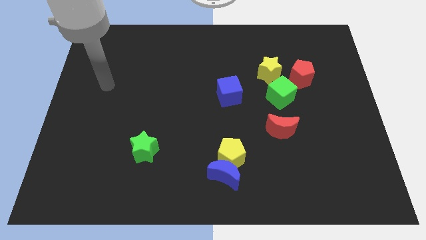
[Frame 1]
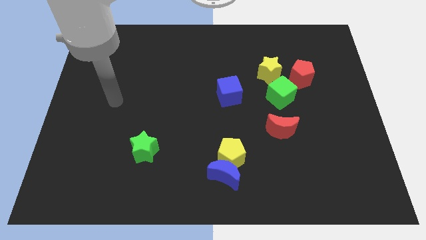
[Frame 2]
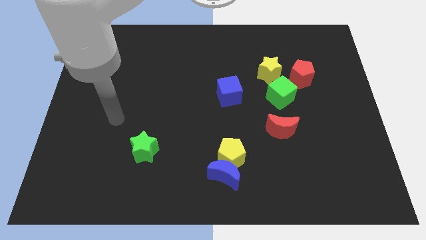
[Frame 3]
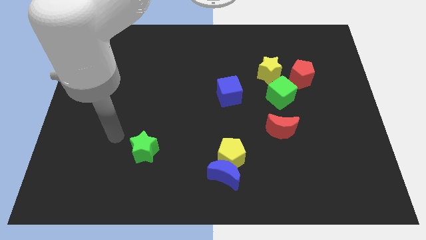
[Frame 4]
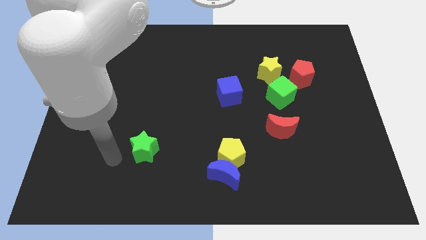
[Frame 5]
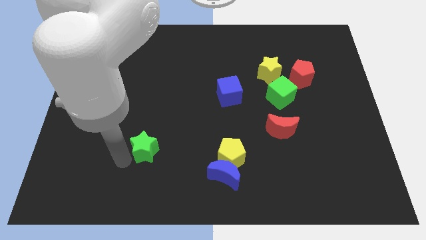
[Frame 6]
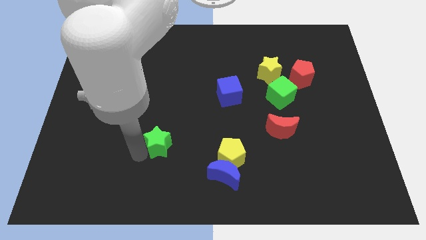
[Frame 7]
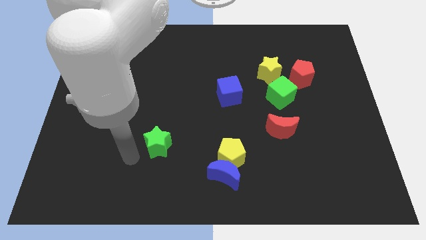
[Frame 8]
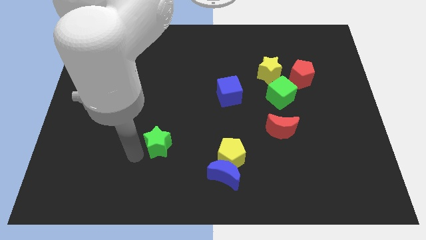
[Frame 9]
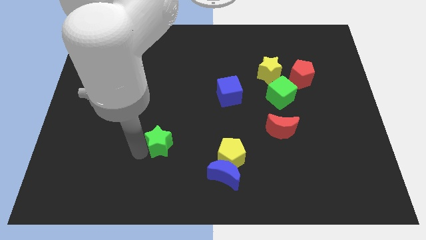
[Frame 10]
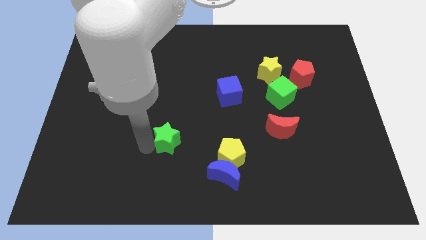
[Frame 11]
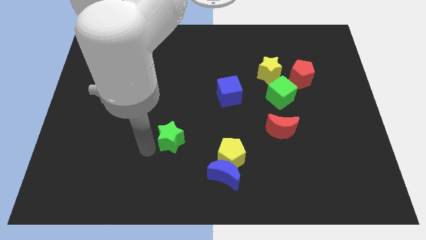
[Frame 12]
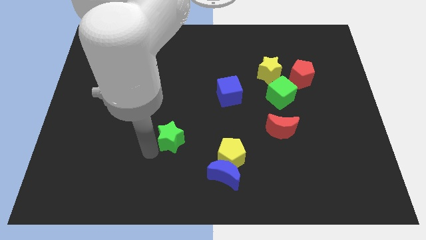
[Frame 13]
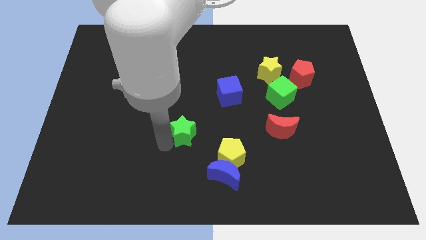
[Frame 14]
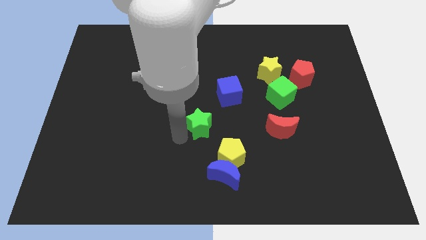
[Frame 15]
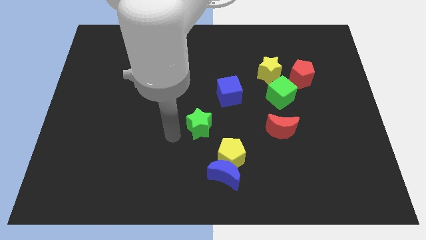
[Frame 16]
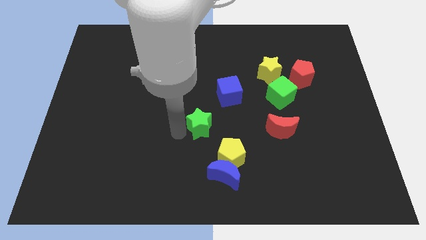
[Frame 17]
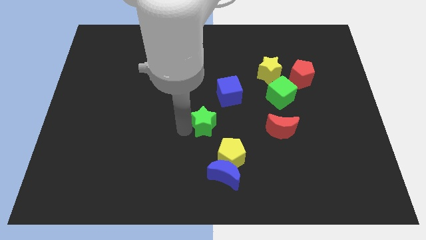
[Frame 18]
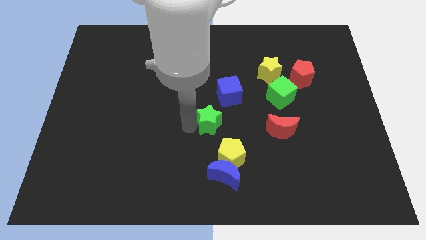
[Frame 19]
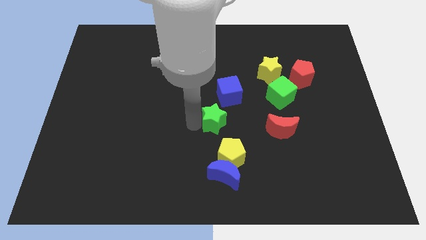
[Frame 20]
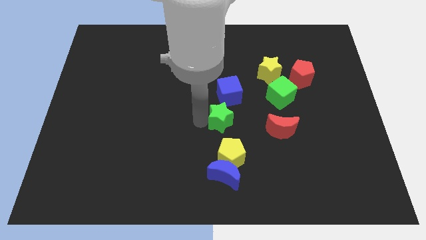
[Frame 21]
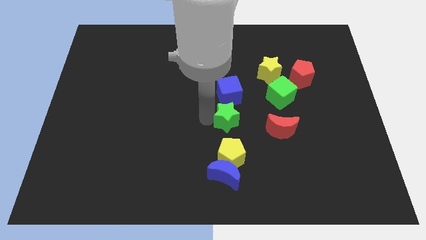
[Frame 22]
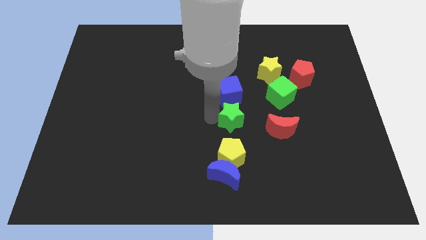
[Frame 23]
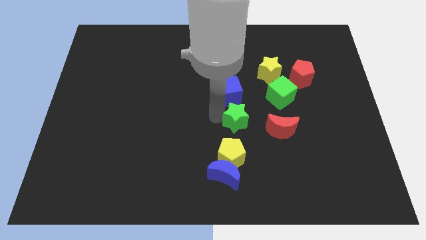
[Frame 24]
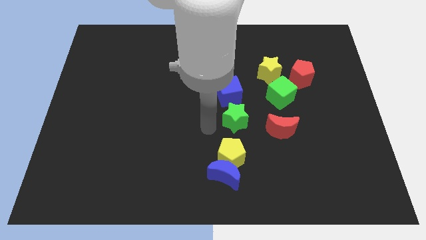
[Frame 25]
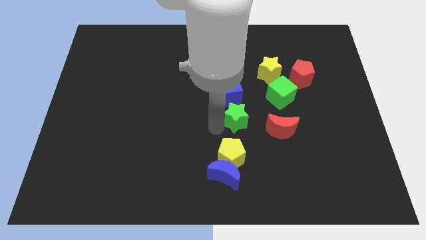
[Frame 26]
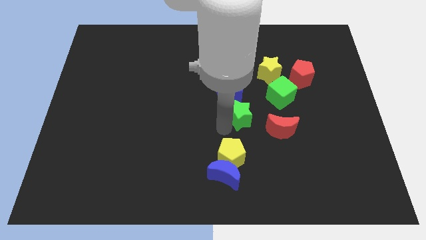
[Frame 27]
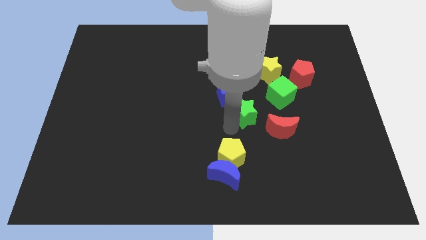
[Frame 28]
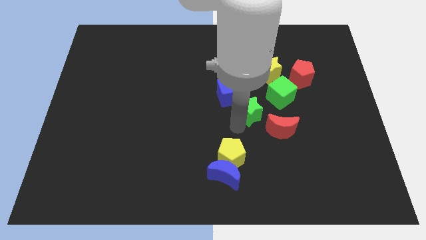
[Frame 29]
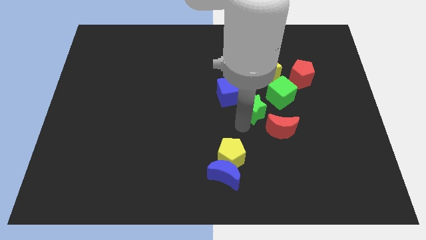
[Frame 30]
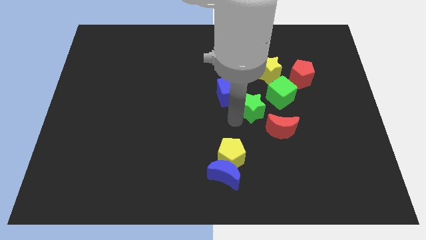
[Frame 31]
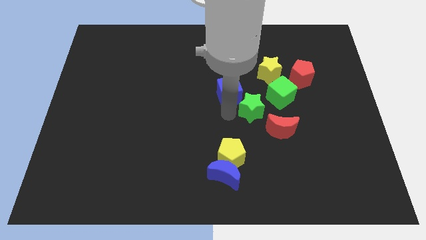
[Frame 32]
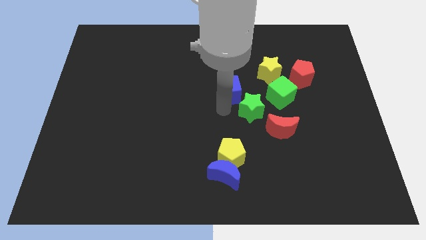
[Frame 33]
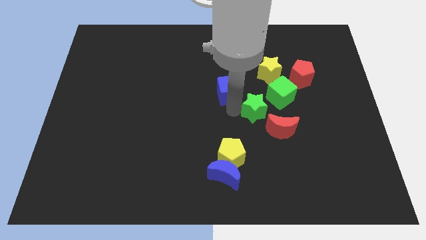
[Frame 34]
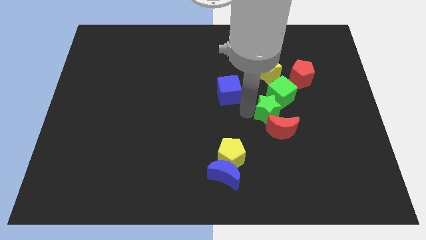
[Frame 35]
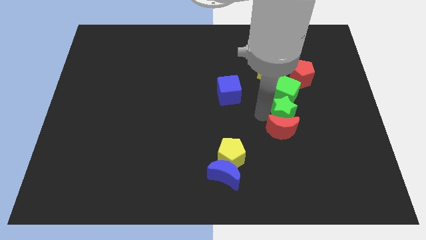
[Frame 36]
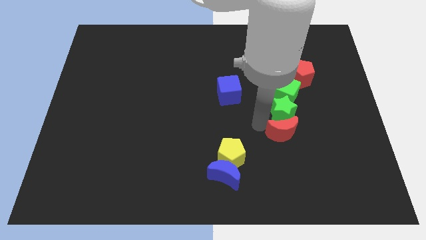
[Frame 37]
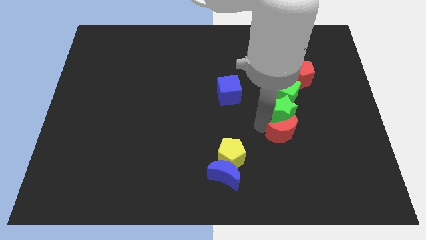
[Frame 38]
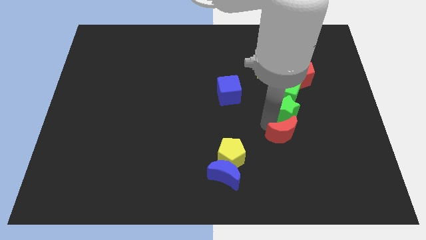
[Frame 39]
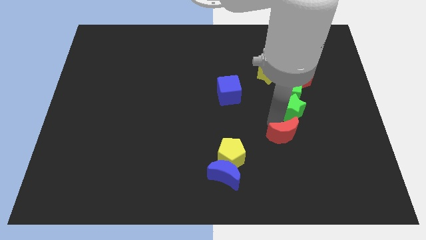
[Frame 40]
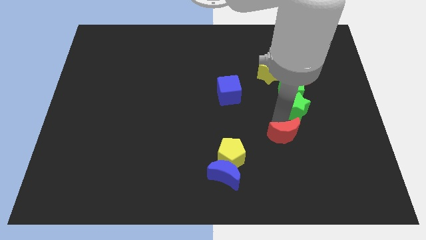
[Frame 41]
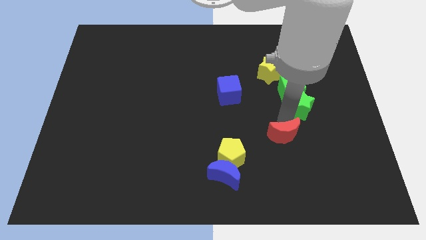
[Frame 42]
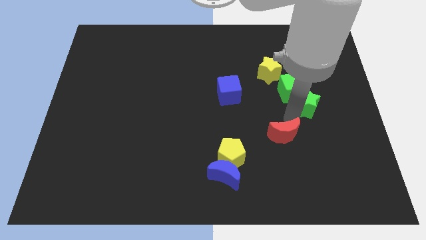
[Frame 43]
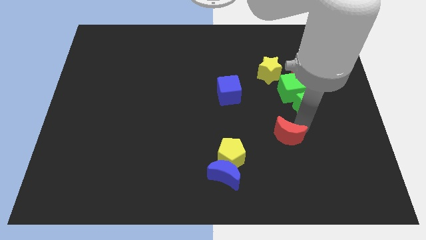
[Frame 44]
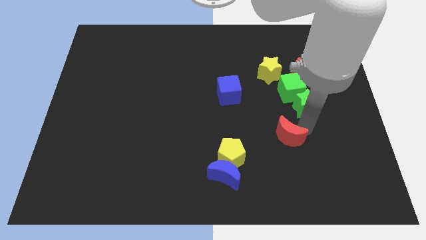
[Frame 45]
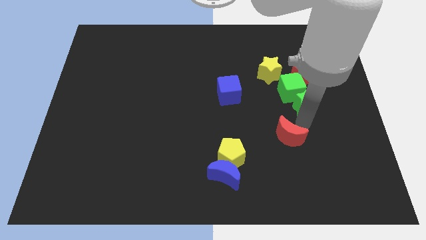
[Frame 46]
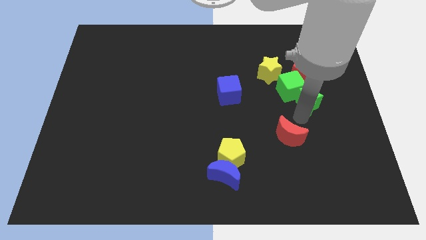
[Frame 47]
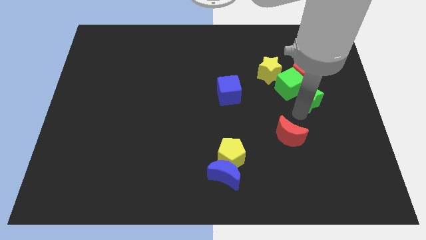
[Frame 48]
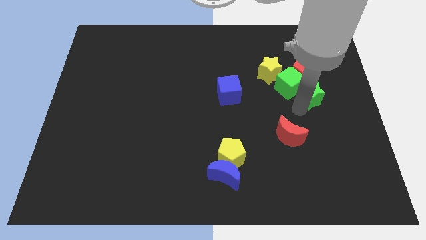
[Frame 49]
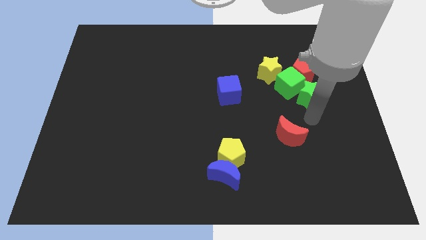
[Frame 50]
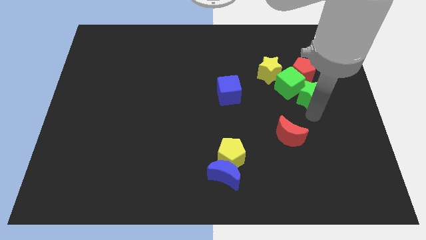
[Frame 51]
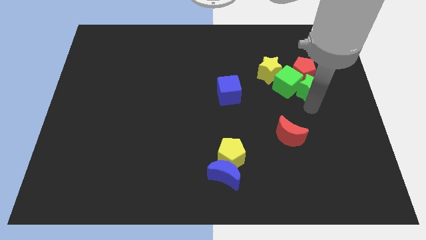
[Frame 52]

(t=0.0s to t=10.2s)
push the green star towards the red pentagon

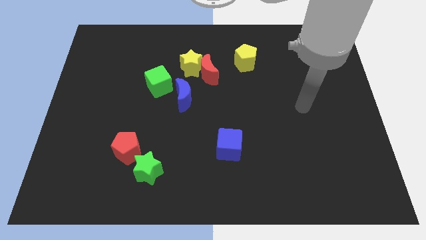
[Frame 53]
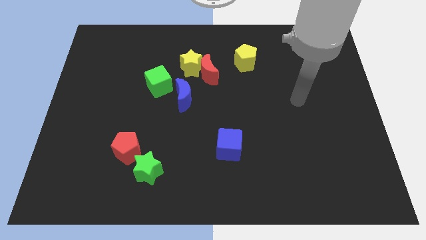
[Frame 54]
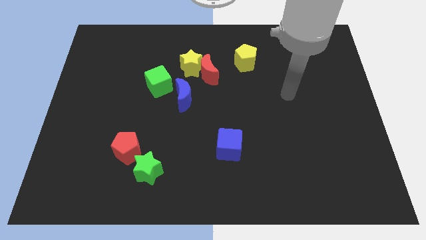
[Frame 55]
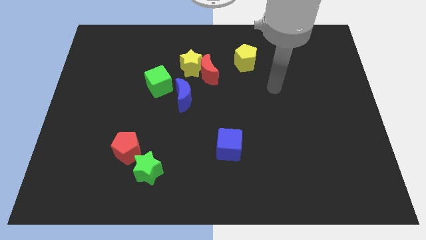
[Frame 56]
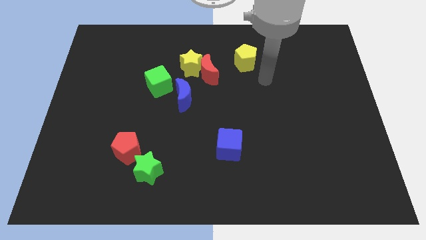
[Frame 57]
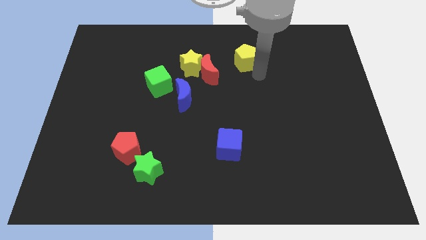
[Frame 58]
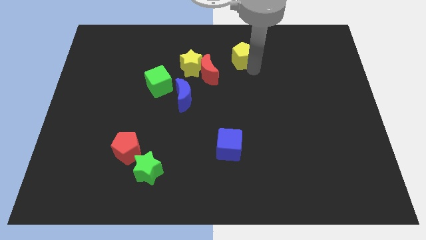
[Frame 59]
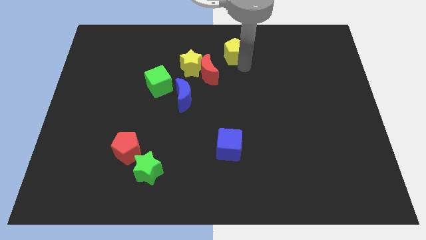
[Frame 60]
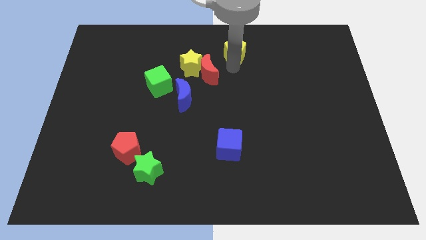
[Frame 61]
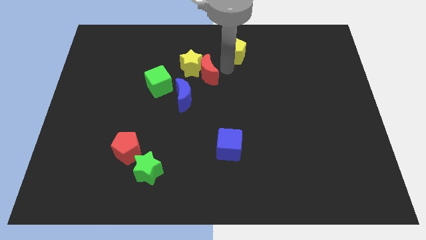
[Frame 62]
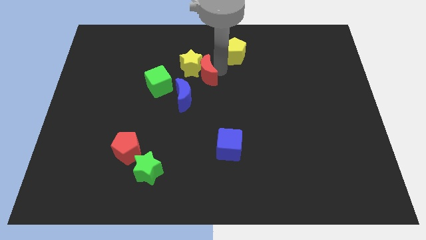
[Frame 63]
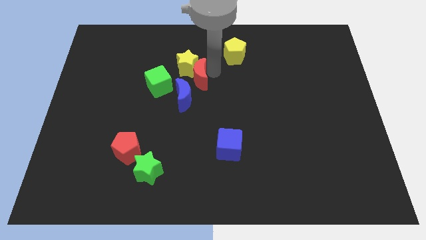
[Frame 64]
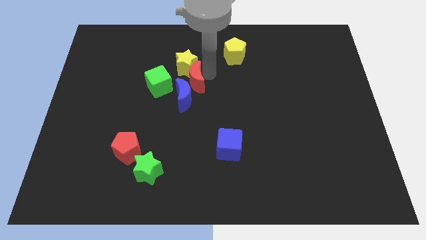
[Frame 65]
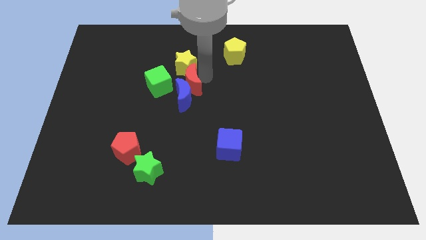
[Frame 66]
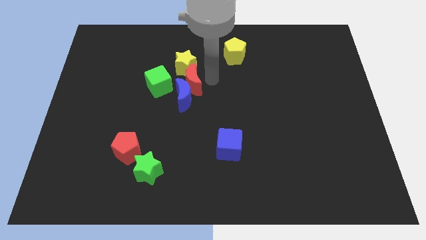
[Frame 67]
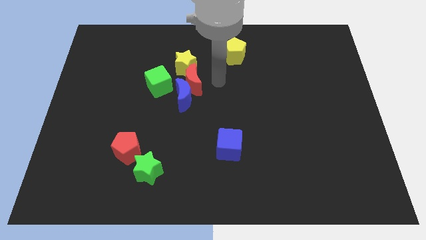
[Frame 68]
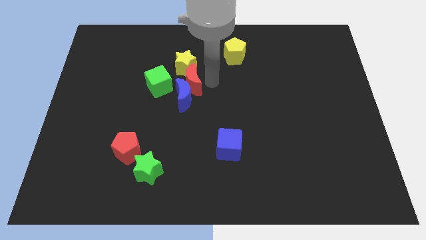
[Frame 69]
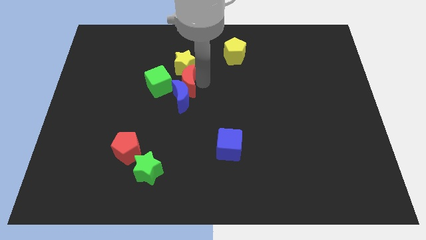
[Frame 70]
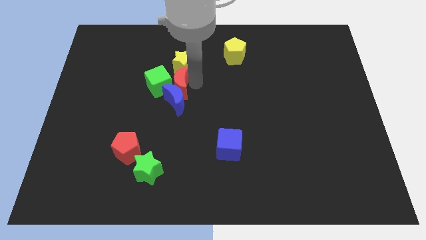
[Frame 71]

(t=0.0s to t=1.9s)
slide the red moon towards the green cube

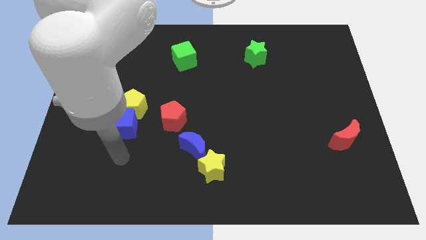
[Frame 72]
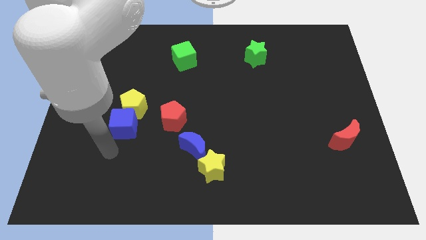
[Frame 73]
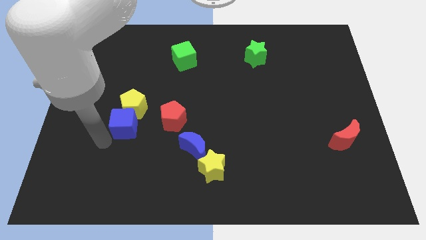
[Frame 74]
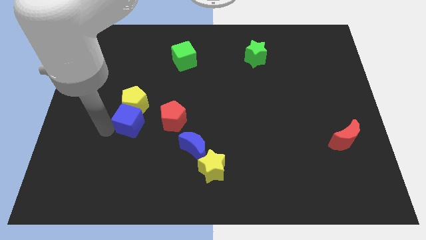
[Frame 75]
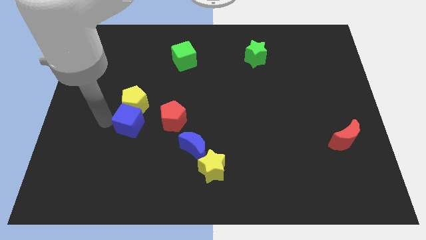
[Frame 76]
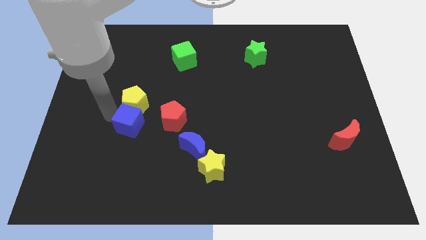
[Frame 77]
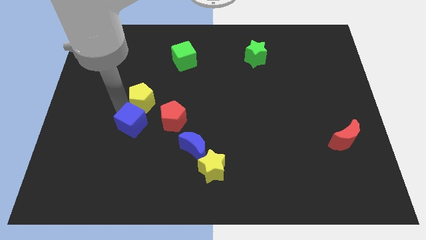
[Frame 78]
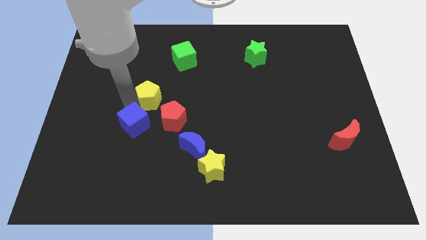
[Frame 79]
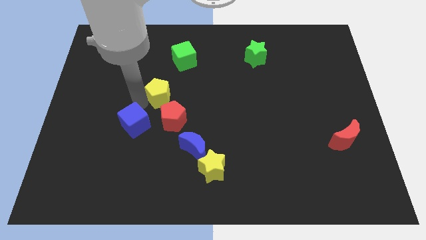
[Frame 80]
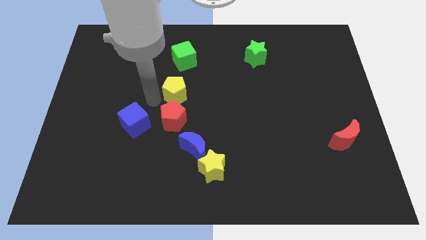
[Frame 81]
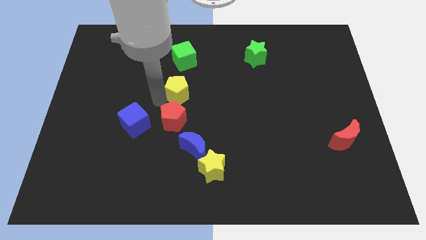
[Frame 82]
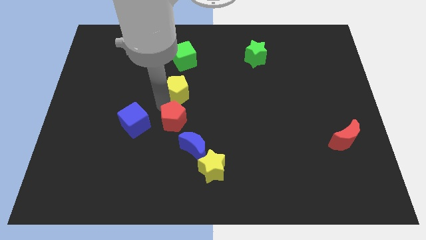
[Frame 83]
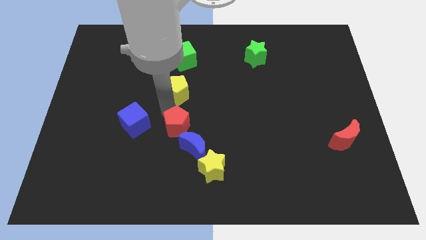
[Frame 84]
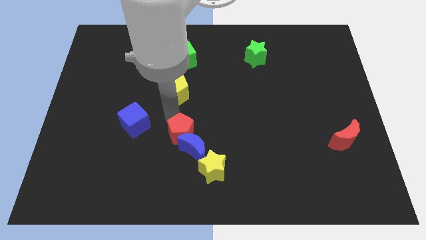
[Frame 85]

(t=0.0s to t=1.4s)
move the red pentagon towards the blue moon
